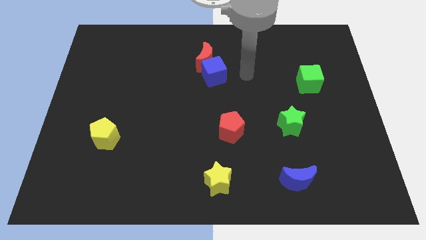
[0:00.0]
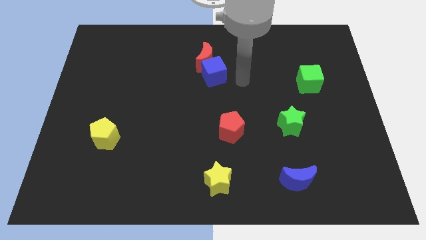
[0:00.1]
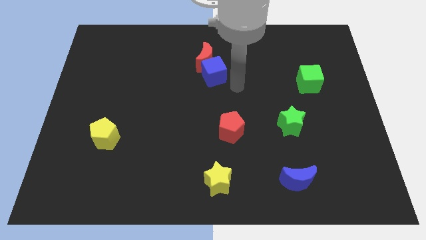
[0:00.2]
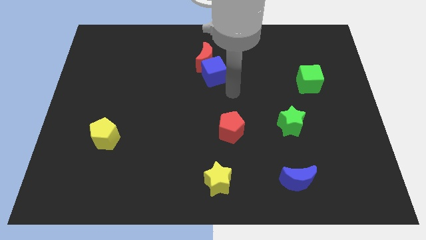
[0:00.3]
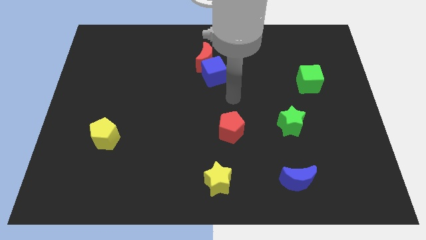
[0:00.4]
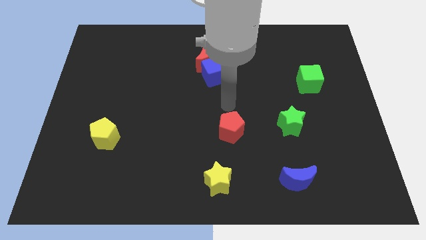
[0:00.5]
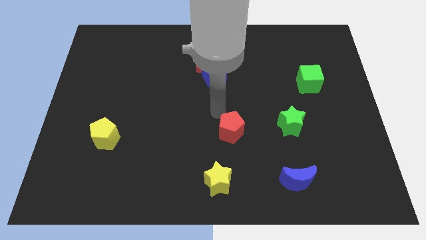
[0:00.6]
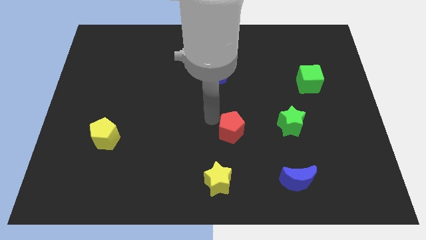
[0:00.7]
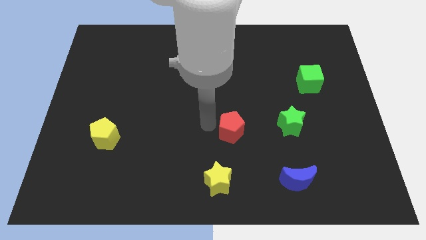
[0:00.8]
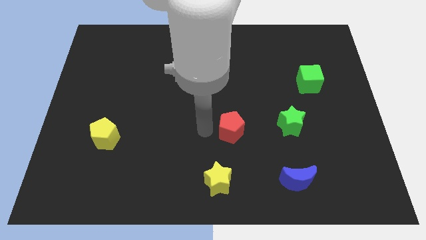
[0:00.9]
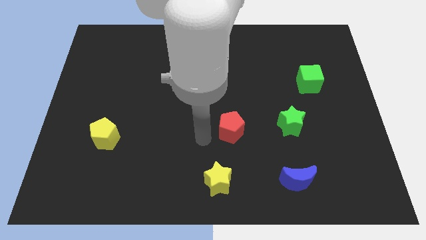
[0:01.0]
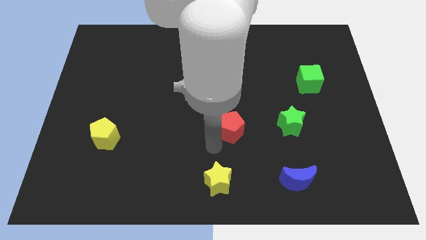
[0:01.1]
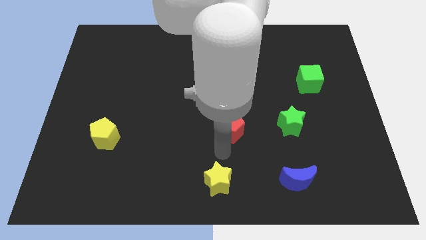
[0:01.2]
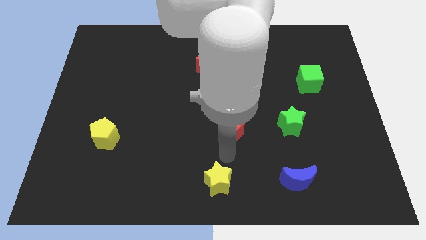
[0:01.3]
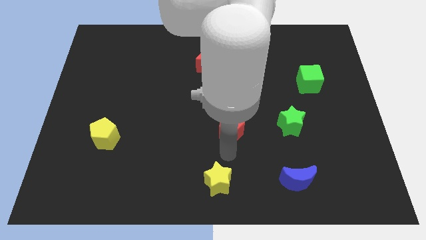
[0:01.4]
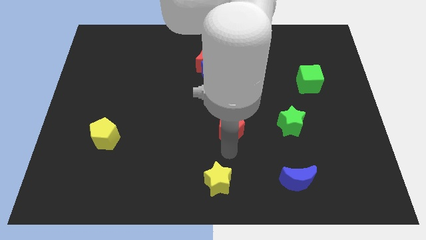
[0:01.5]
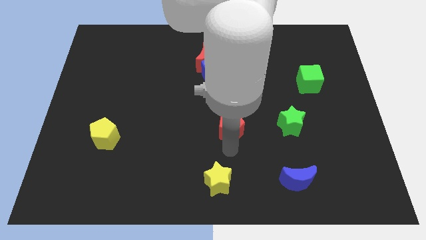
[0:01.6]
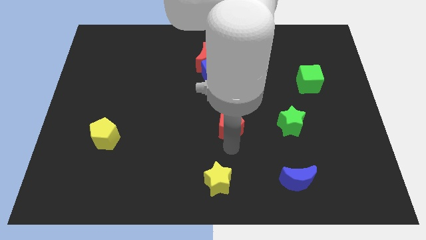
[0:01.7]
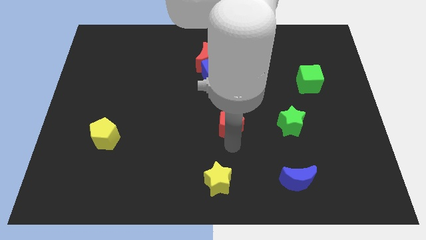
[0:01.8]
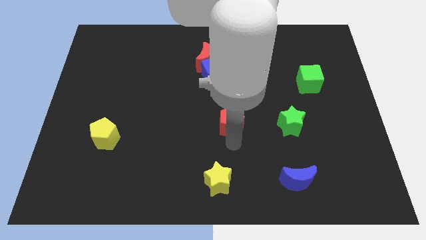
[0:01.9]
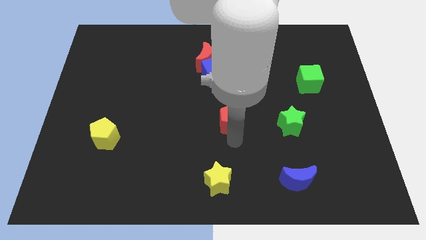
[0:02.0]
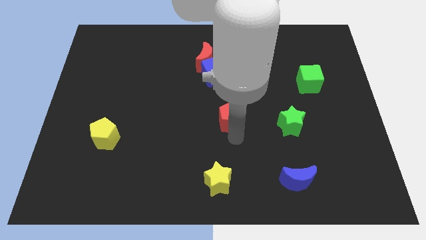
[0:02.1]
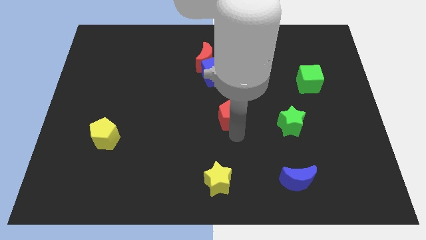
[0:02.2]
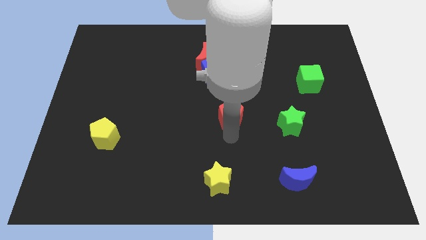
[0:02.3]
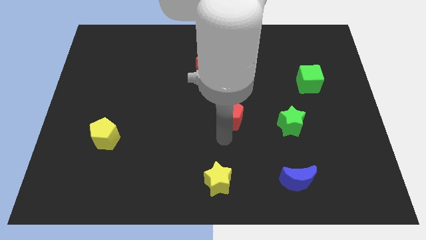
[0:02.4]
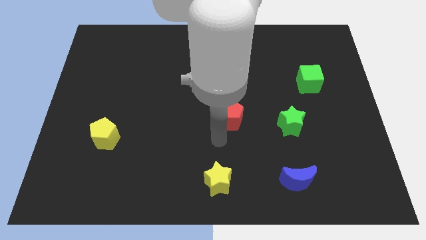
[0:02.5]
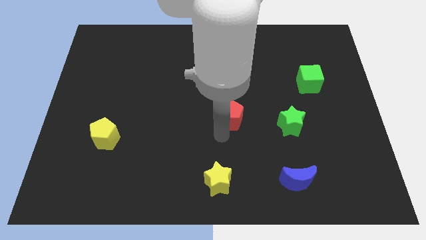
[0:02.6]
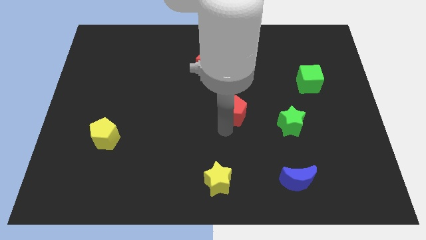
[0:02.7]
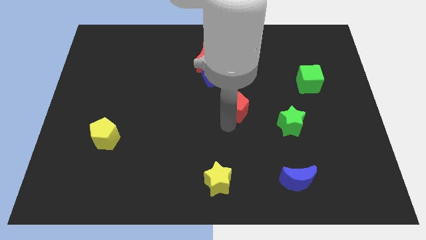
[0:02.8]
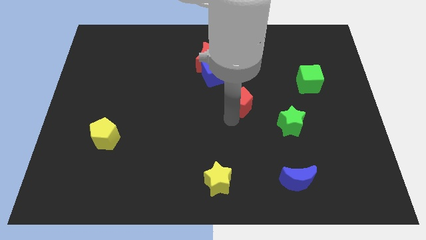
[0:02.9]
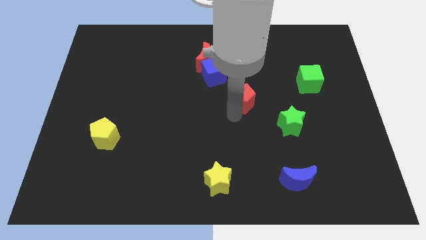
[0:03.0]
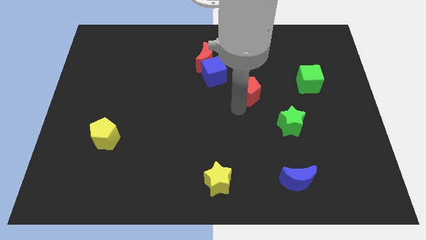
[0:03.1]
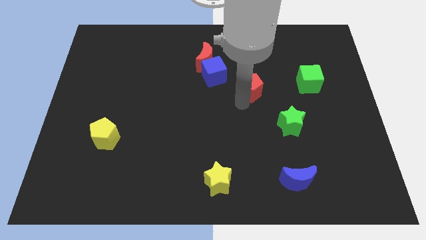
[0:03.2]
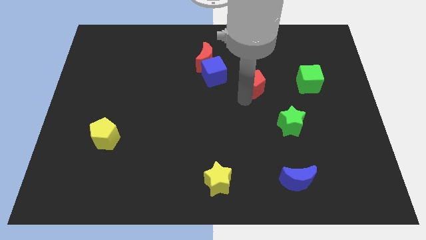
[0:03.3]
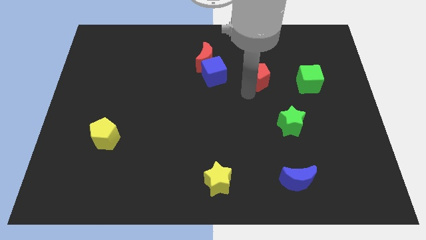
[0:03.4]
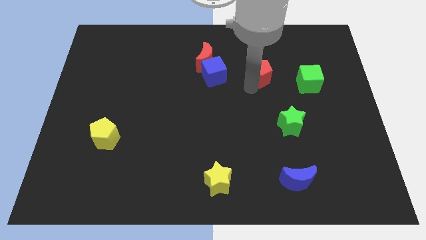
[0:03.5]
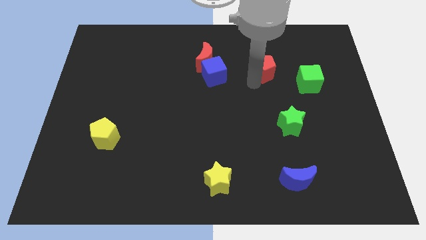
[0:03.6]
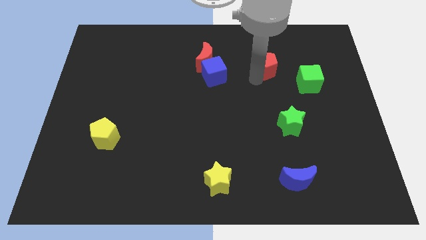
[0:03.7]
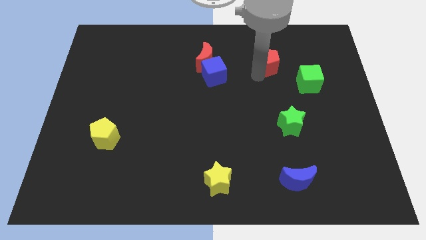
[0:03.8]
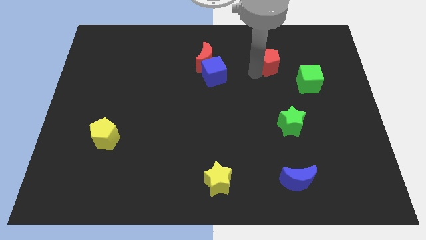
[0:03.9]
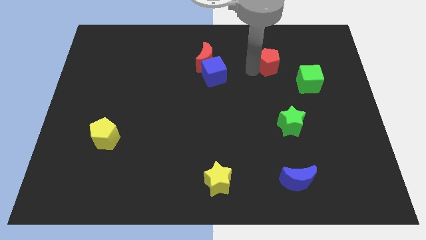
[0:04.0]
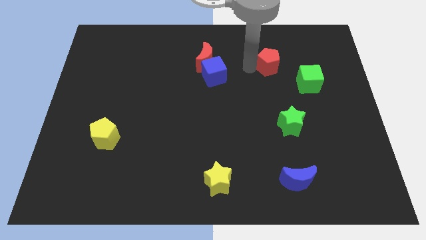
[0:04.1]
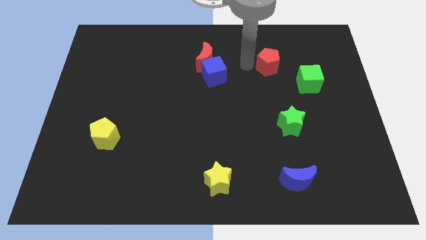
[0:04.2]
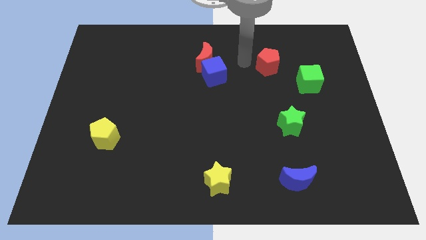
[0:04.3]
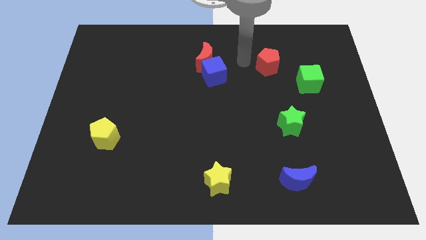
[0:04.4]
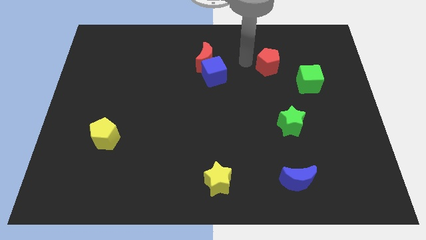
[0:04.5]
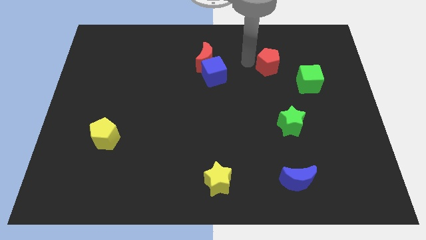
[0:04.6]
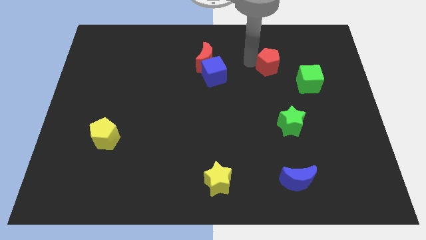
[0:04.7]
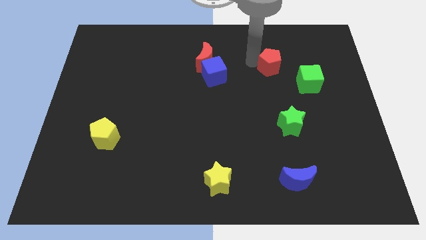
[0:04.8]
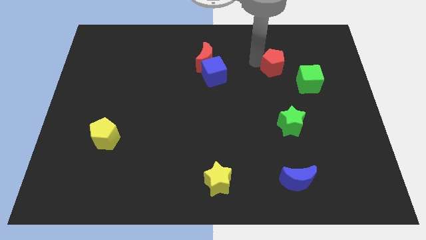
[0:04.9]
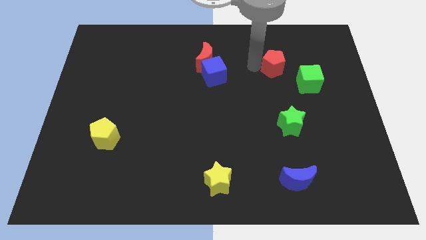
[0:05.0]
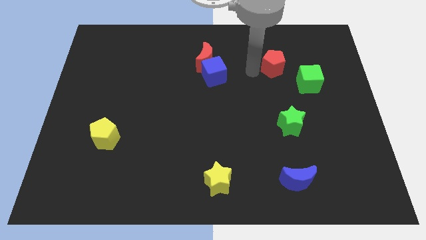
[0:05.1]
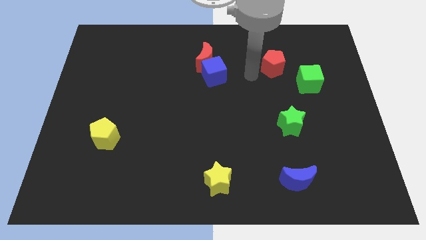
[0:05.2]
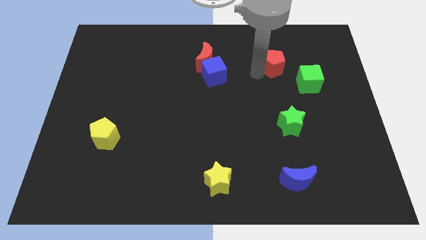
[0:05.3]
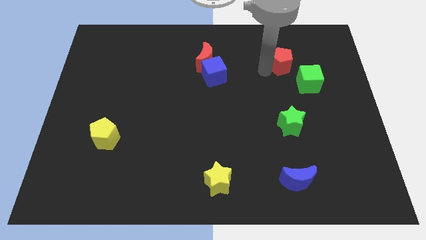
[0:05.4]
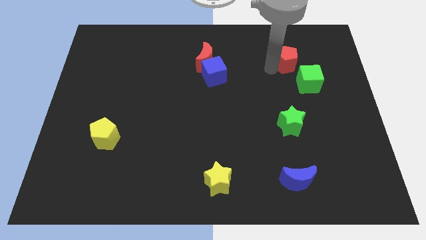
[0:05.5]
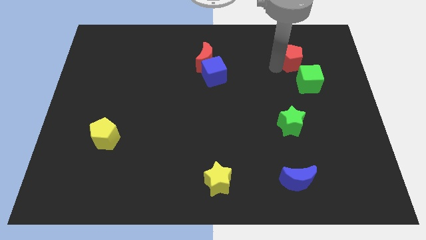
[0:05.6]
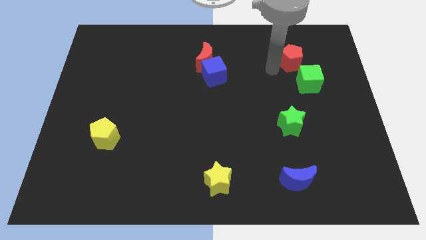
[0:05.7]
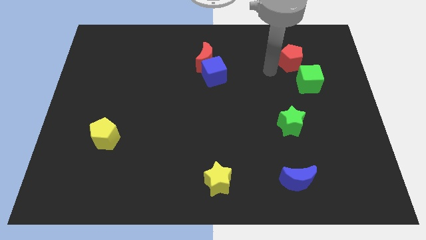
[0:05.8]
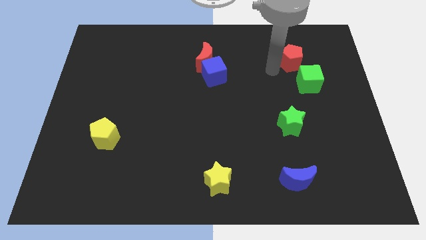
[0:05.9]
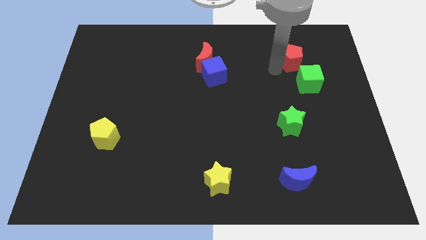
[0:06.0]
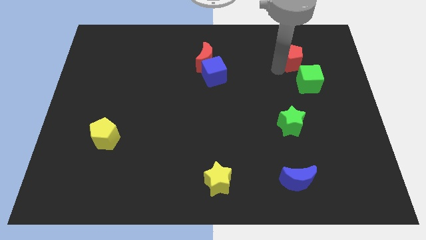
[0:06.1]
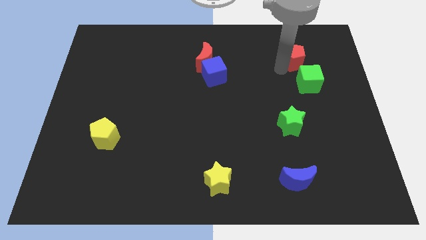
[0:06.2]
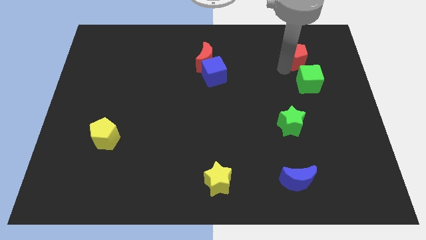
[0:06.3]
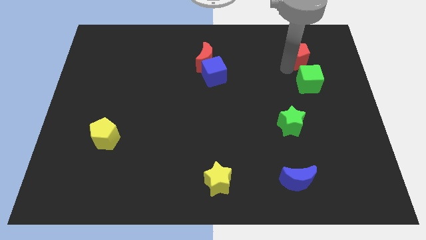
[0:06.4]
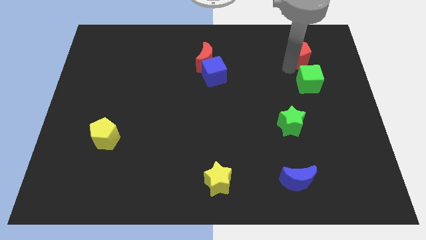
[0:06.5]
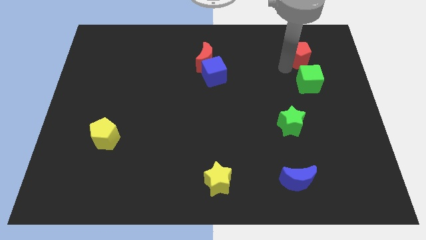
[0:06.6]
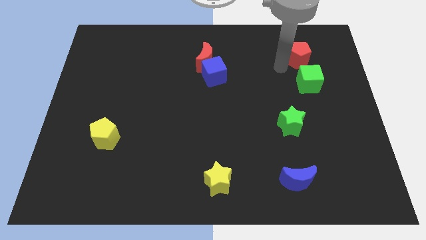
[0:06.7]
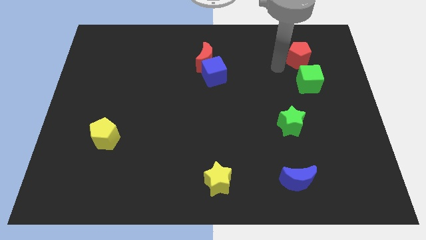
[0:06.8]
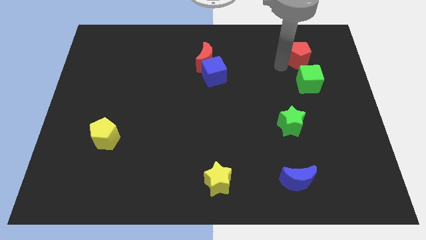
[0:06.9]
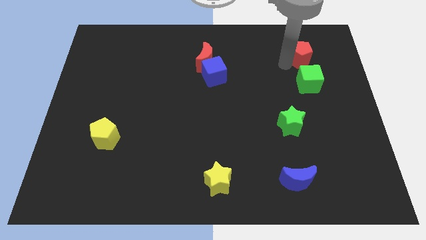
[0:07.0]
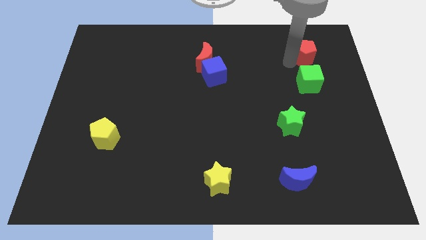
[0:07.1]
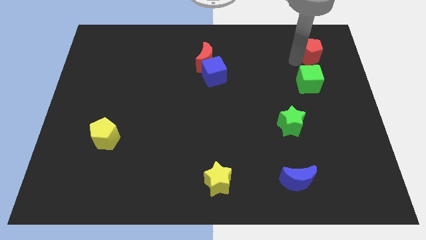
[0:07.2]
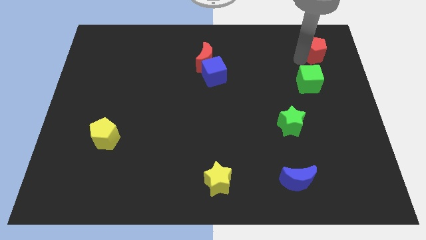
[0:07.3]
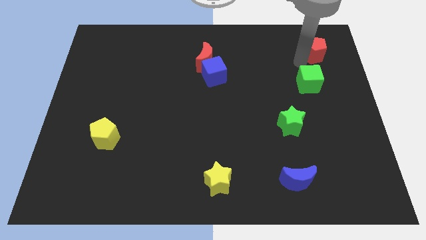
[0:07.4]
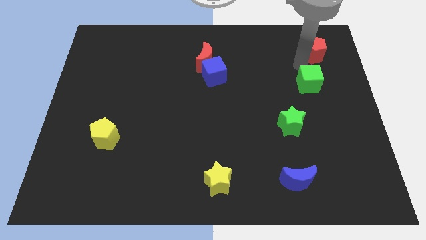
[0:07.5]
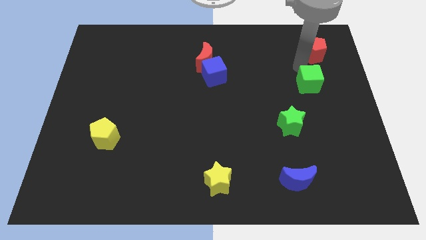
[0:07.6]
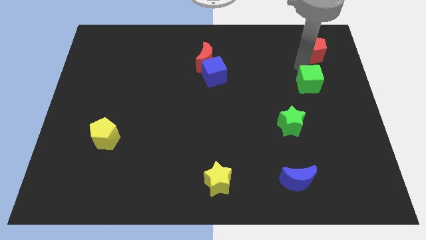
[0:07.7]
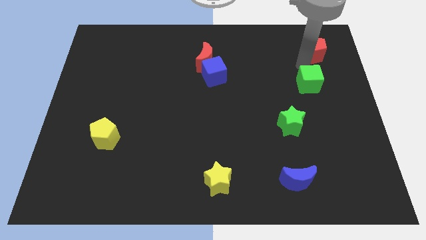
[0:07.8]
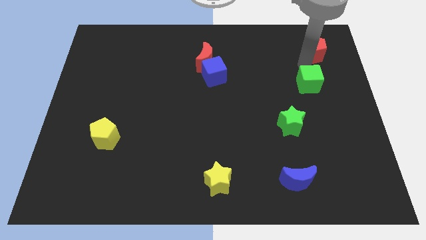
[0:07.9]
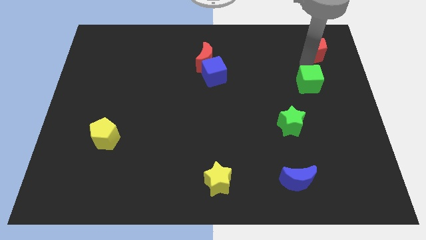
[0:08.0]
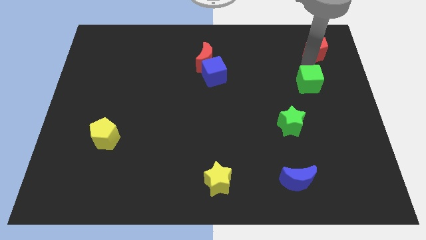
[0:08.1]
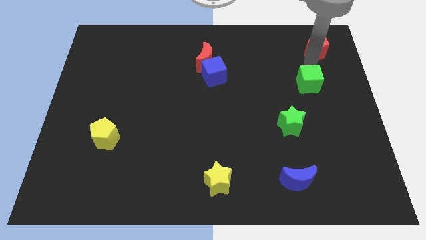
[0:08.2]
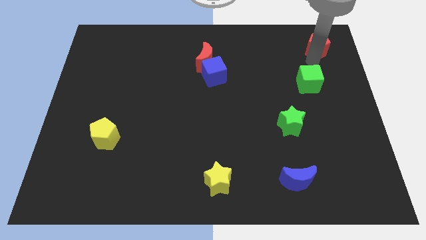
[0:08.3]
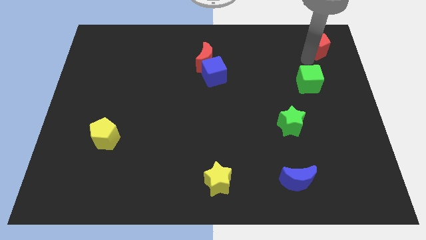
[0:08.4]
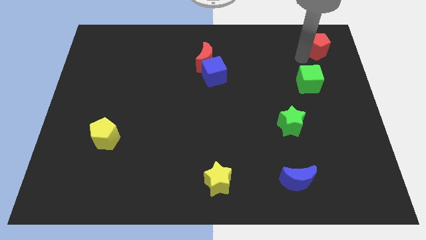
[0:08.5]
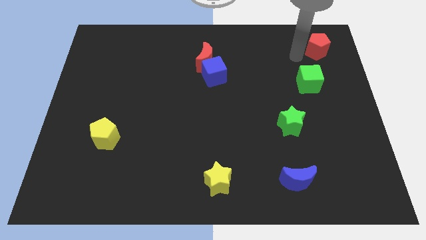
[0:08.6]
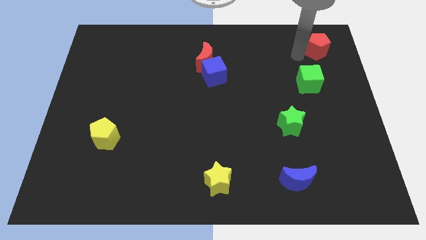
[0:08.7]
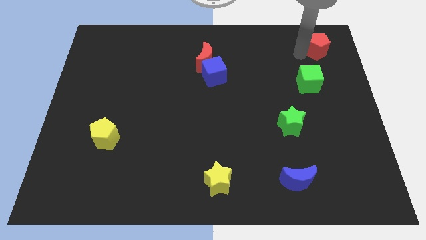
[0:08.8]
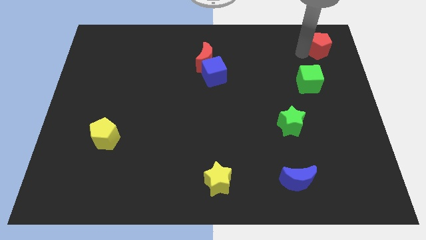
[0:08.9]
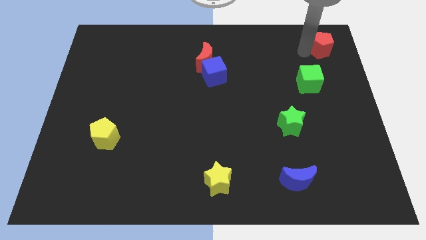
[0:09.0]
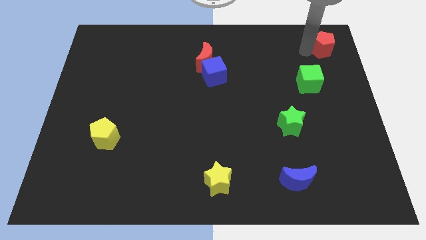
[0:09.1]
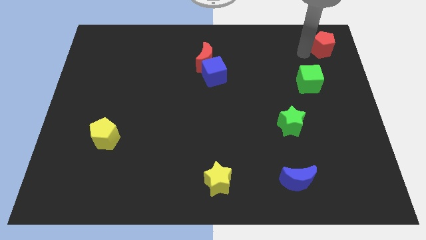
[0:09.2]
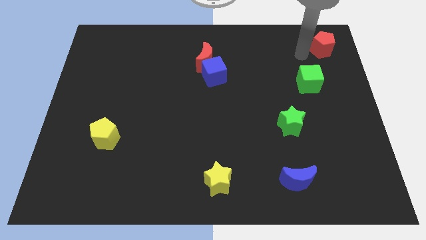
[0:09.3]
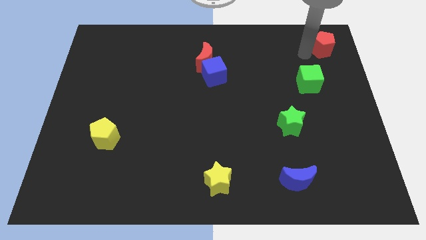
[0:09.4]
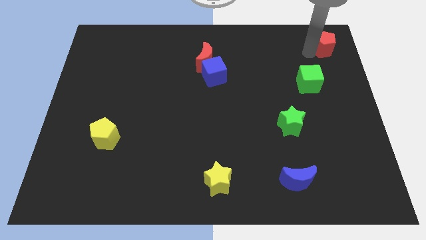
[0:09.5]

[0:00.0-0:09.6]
move the red pentagon to the upper right corner
